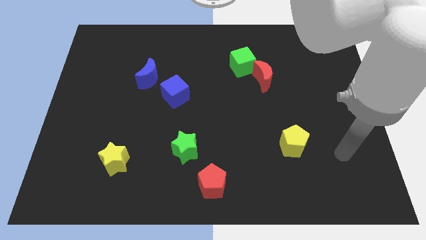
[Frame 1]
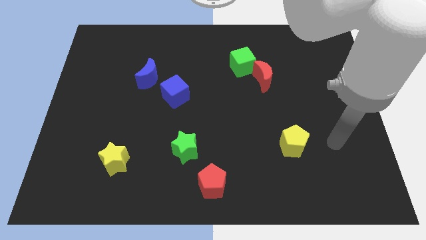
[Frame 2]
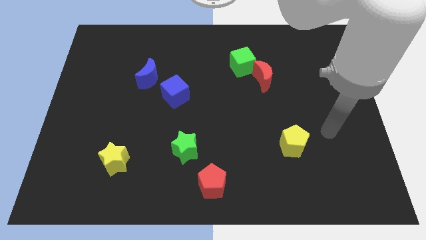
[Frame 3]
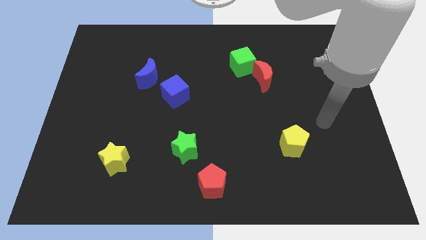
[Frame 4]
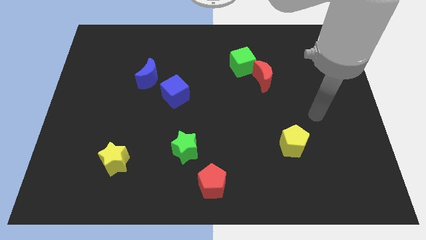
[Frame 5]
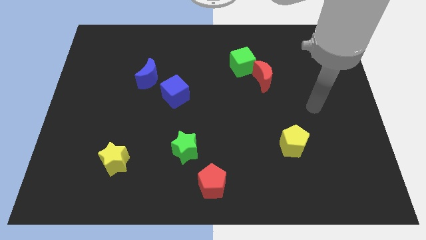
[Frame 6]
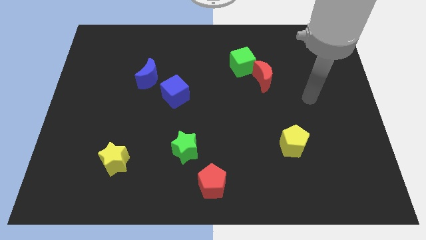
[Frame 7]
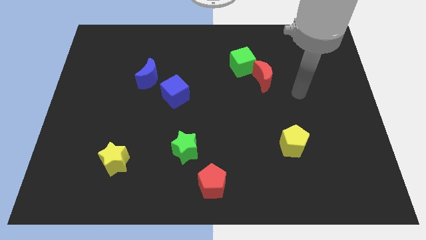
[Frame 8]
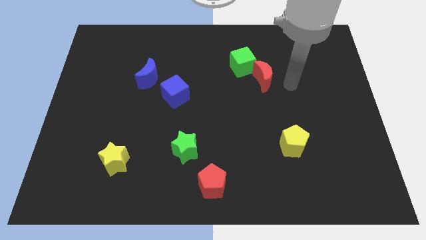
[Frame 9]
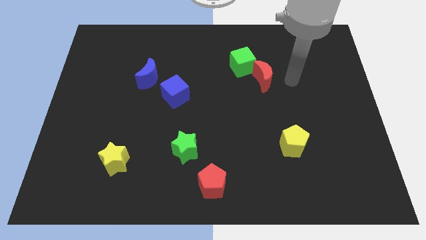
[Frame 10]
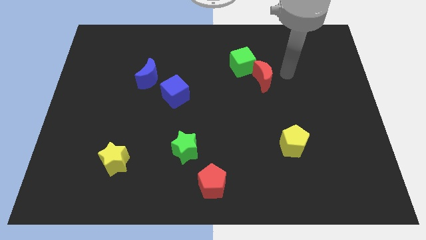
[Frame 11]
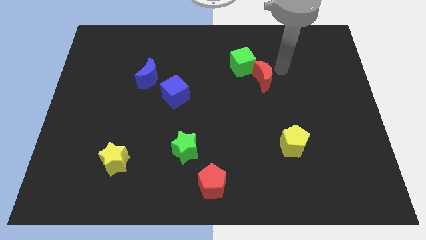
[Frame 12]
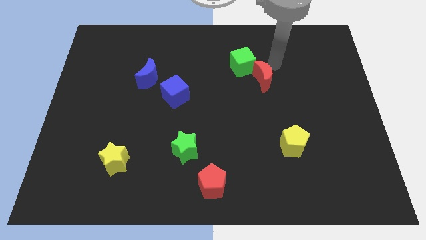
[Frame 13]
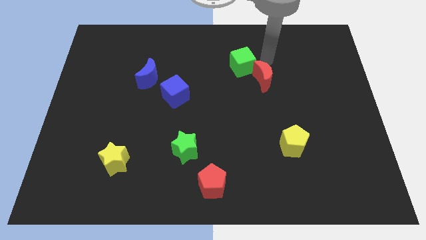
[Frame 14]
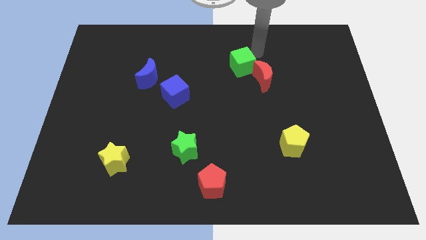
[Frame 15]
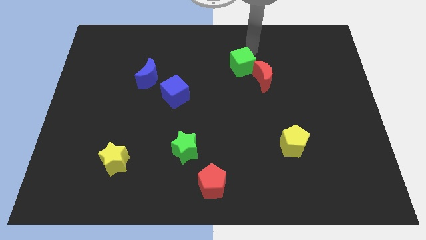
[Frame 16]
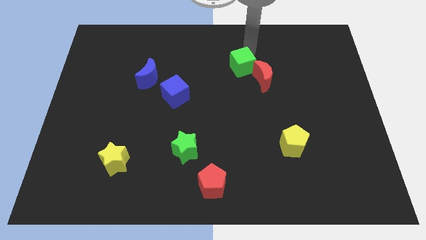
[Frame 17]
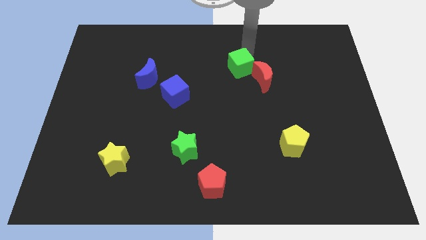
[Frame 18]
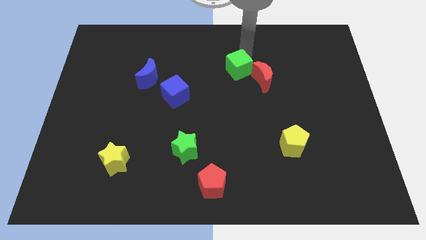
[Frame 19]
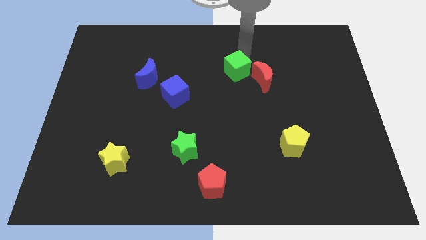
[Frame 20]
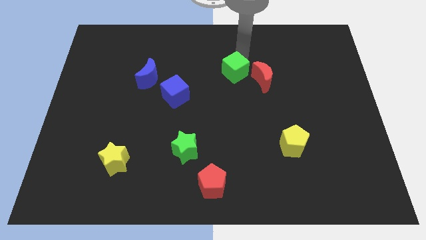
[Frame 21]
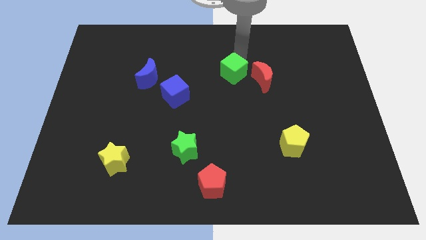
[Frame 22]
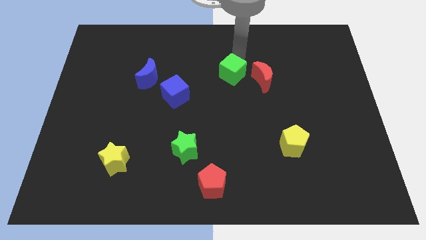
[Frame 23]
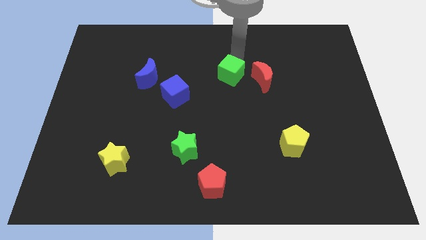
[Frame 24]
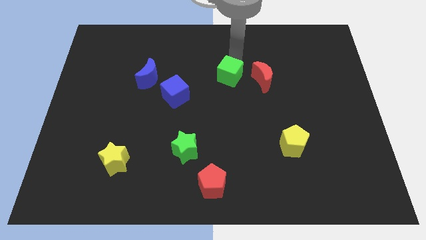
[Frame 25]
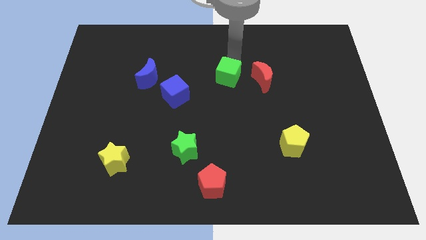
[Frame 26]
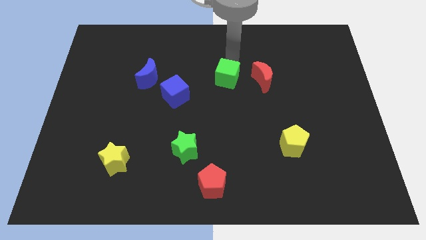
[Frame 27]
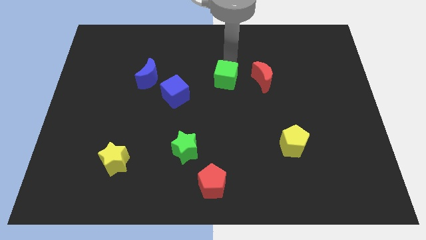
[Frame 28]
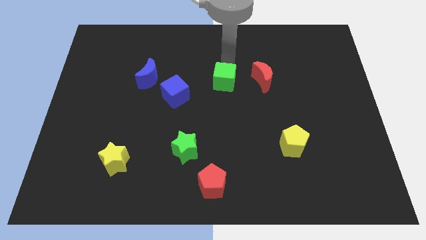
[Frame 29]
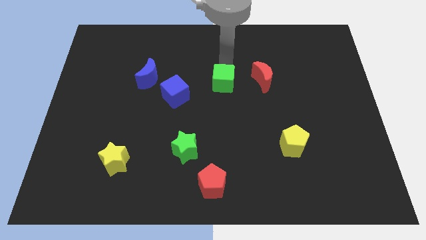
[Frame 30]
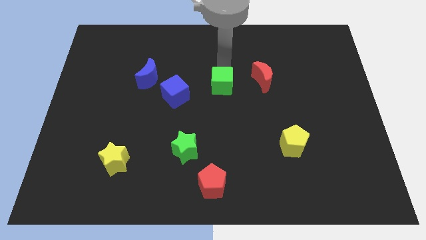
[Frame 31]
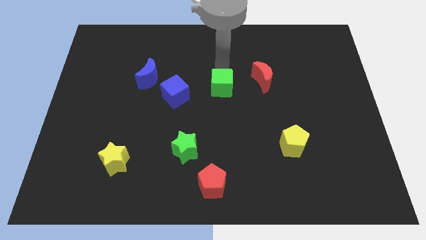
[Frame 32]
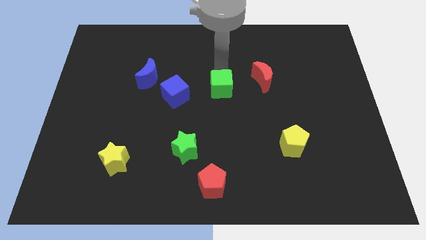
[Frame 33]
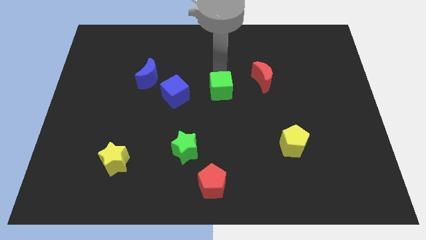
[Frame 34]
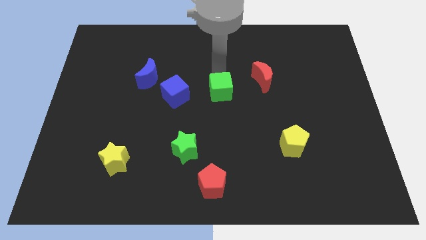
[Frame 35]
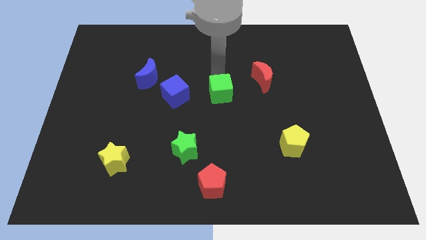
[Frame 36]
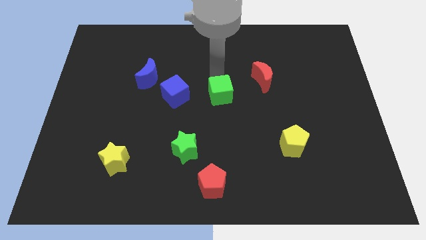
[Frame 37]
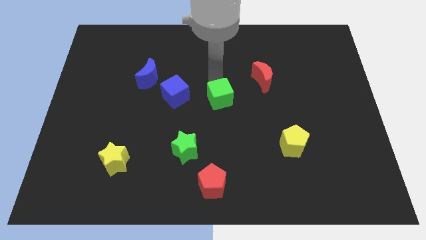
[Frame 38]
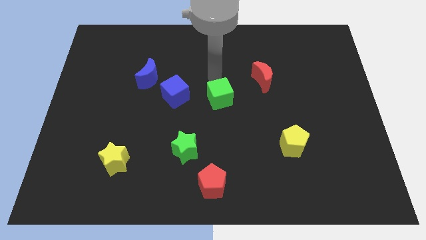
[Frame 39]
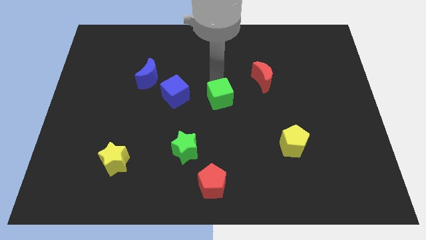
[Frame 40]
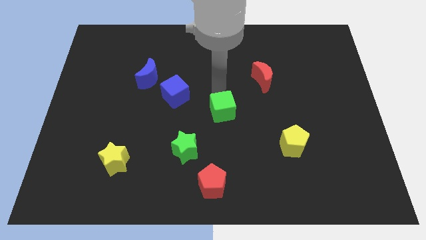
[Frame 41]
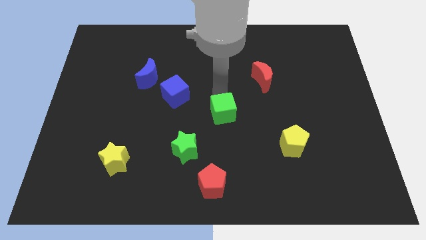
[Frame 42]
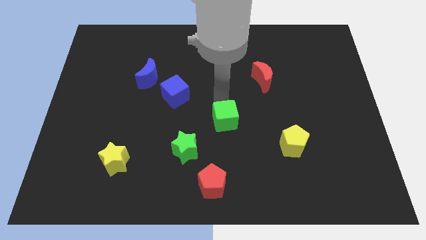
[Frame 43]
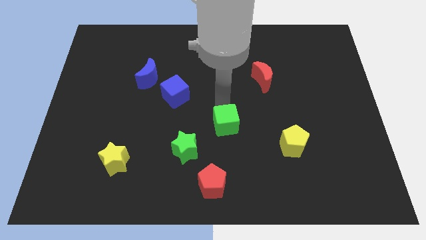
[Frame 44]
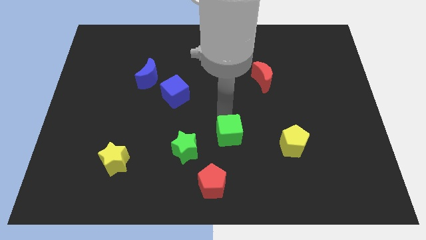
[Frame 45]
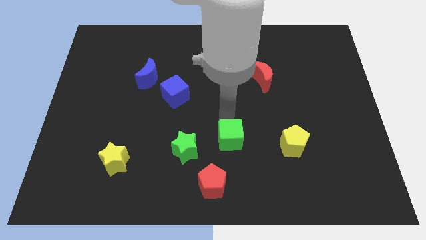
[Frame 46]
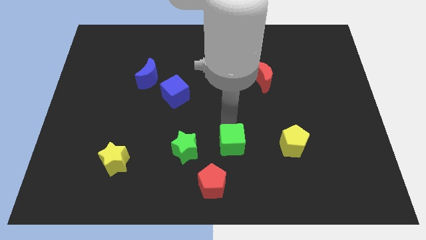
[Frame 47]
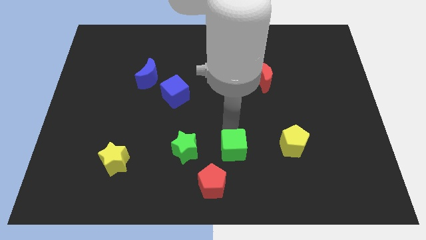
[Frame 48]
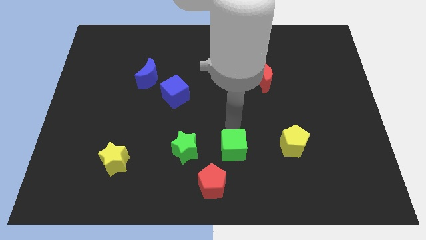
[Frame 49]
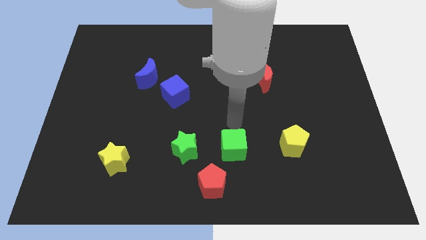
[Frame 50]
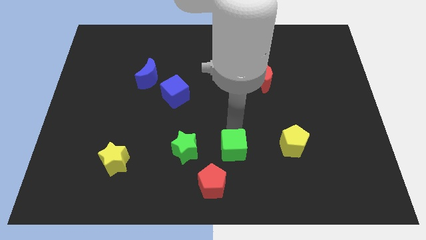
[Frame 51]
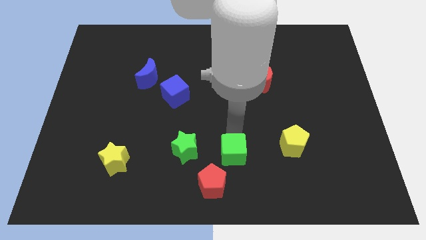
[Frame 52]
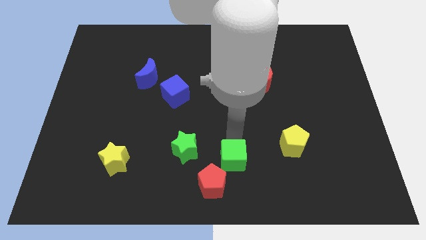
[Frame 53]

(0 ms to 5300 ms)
put the green cube to the bottom side
